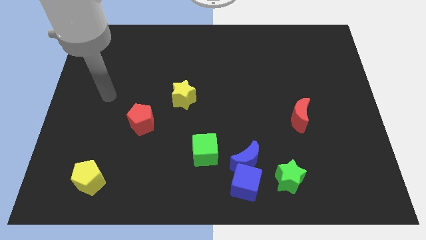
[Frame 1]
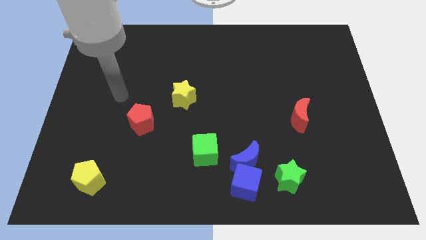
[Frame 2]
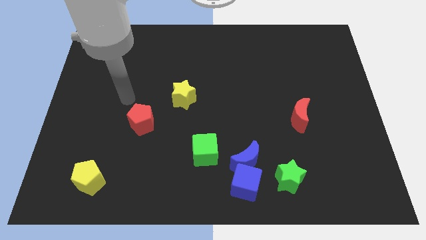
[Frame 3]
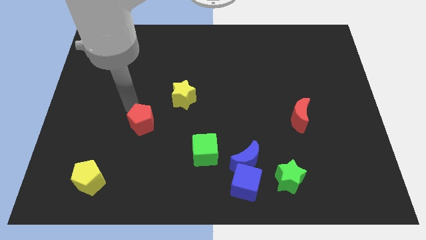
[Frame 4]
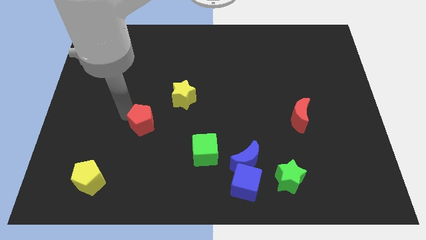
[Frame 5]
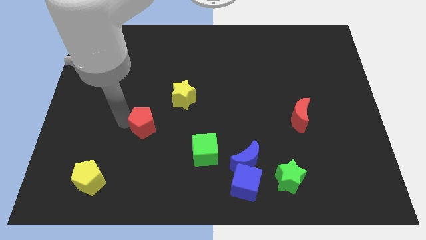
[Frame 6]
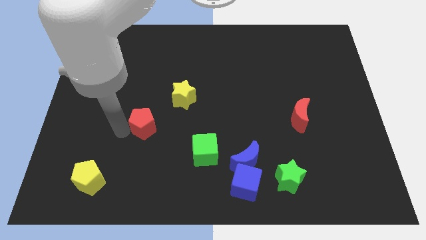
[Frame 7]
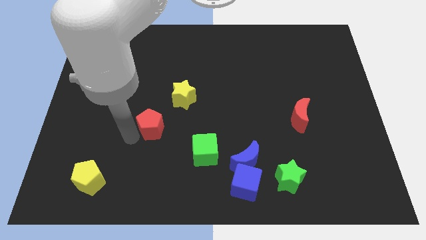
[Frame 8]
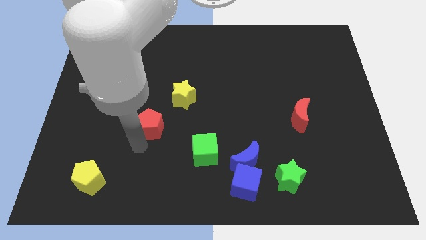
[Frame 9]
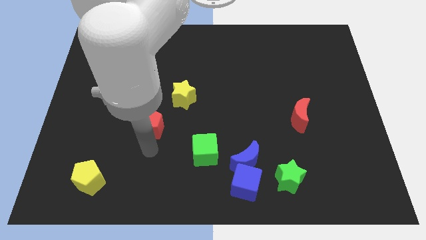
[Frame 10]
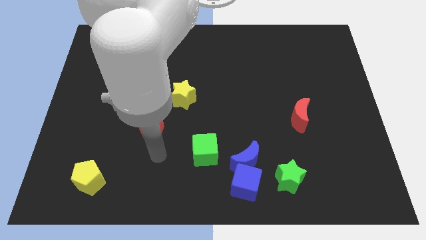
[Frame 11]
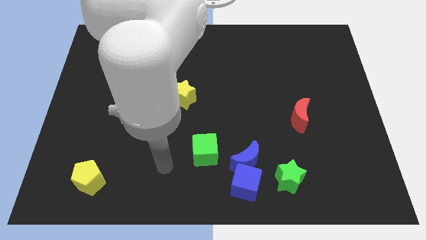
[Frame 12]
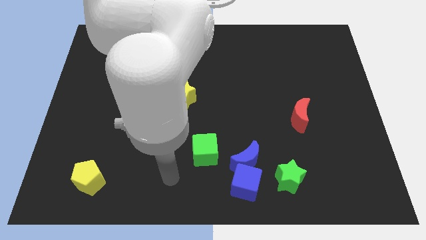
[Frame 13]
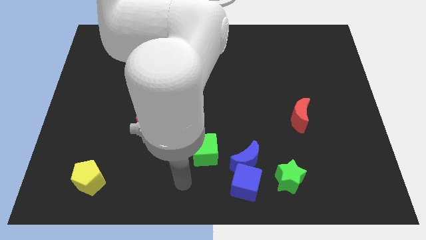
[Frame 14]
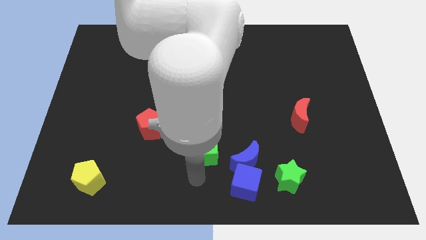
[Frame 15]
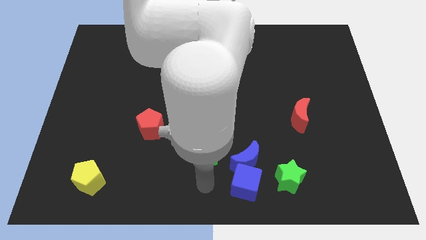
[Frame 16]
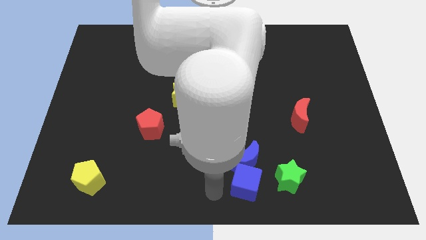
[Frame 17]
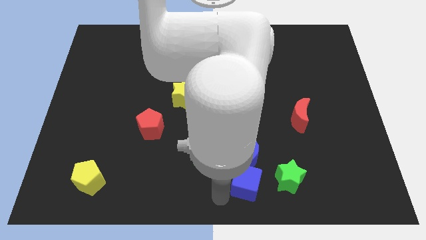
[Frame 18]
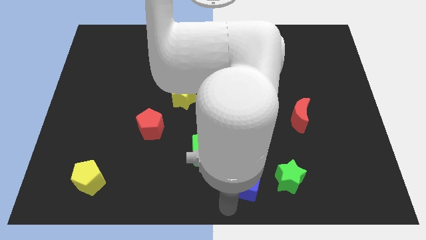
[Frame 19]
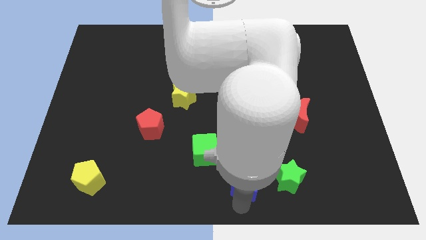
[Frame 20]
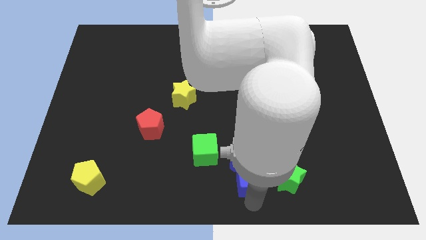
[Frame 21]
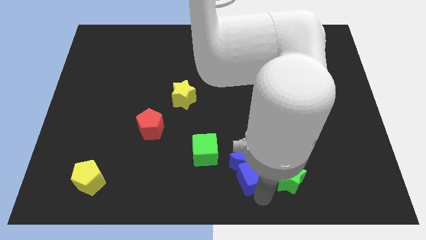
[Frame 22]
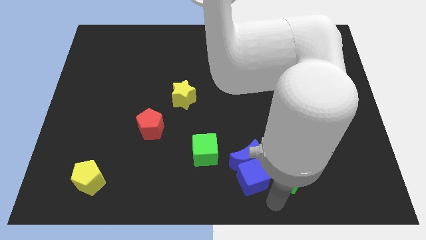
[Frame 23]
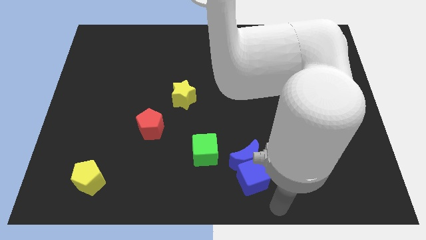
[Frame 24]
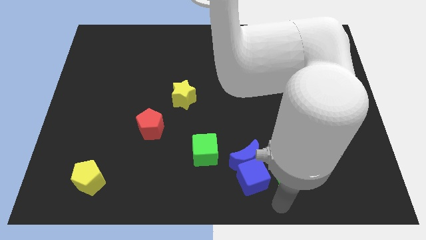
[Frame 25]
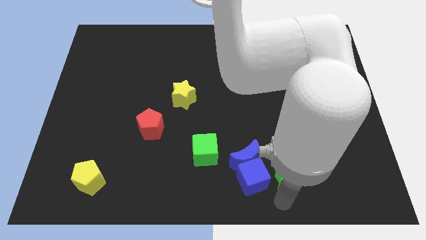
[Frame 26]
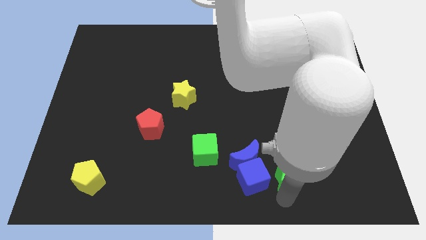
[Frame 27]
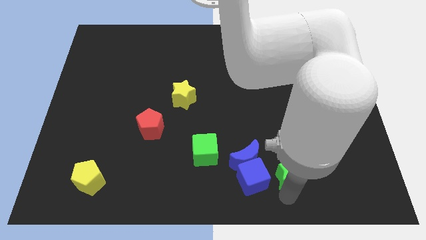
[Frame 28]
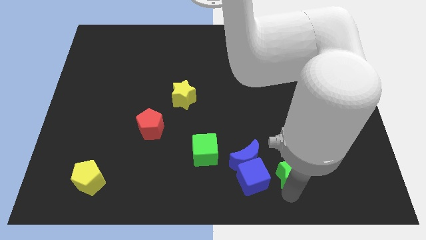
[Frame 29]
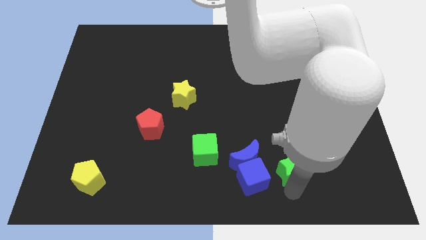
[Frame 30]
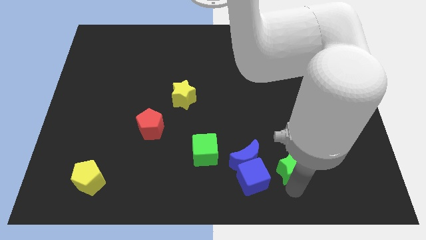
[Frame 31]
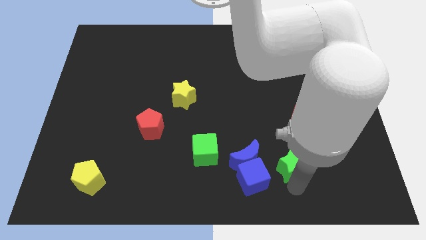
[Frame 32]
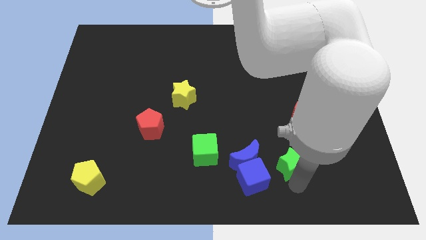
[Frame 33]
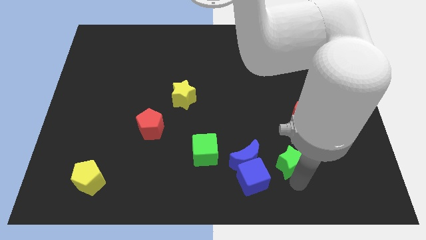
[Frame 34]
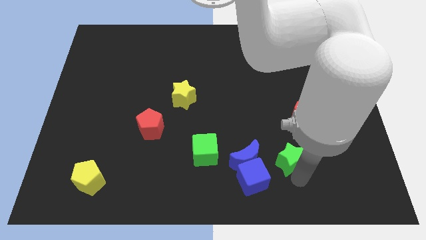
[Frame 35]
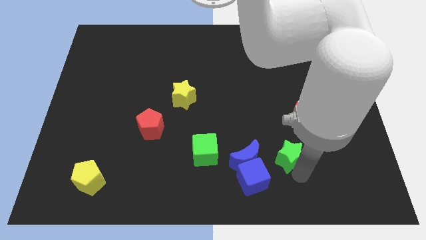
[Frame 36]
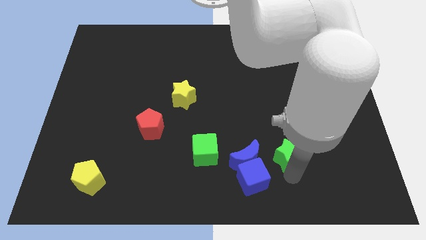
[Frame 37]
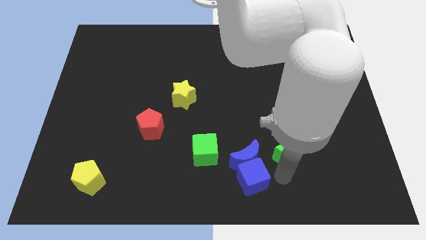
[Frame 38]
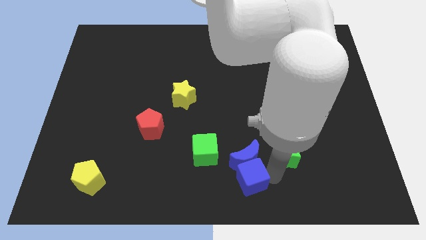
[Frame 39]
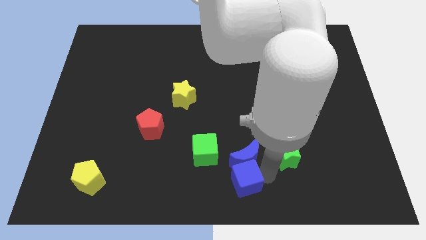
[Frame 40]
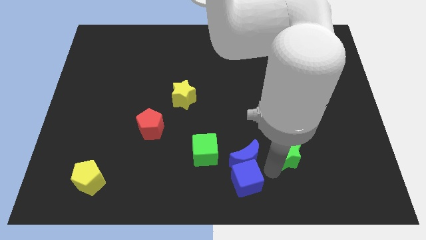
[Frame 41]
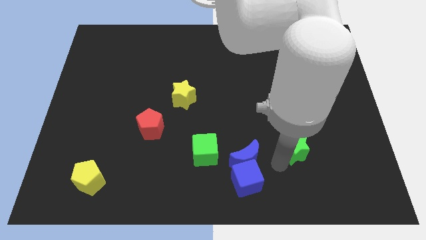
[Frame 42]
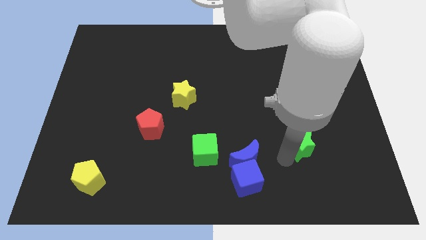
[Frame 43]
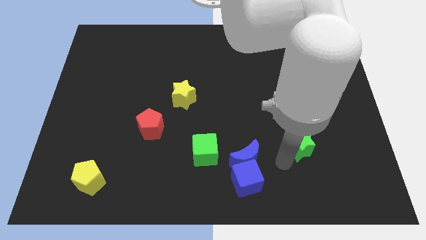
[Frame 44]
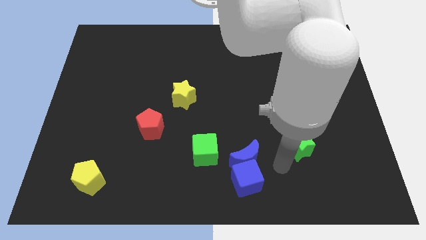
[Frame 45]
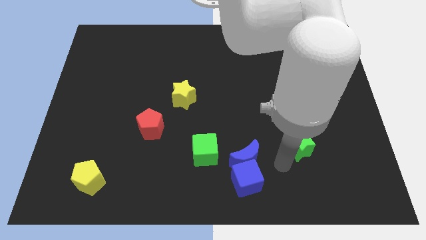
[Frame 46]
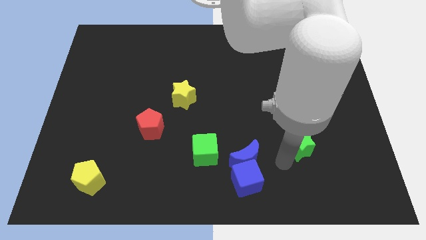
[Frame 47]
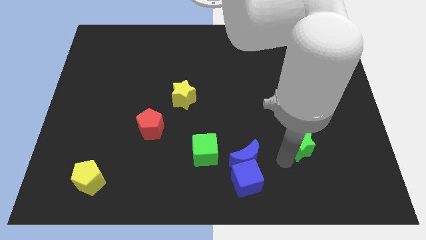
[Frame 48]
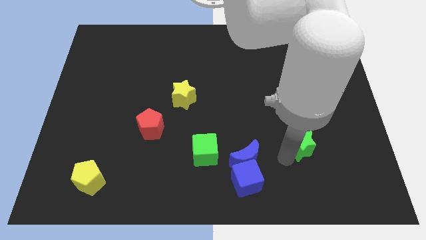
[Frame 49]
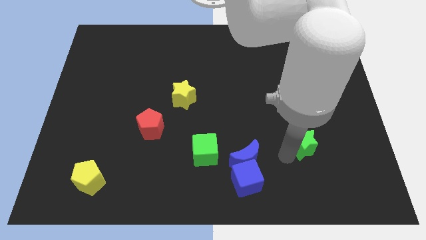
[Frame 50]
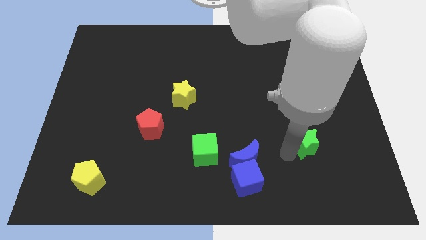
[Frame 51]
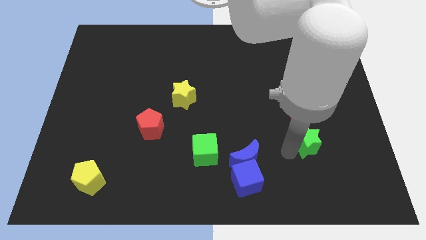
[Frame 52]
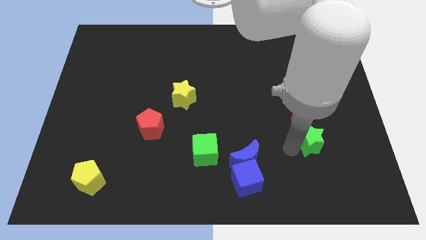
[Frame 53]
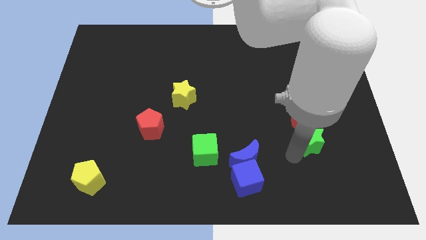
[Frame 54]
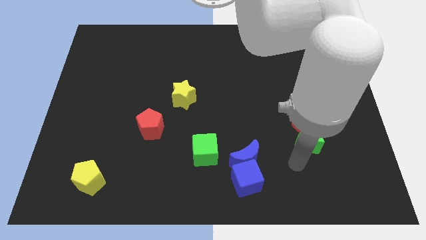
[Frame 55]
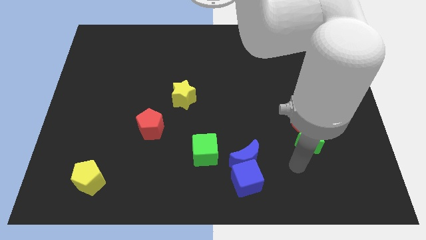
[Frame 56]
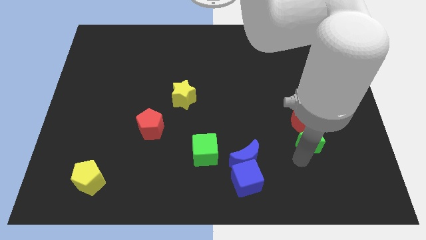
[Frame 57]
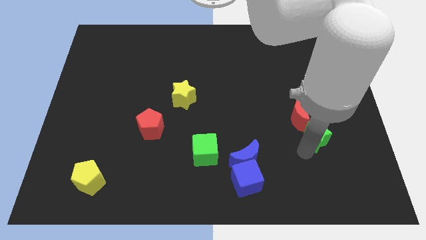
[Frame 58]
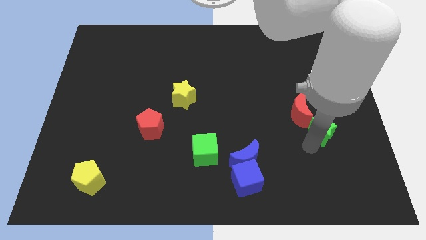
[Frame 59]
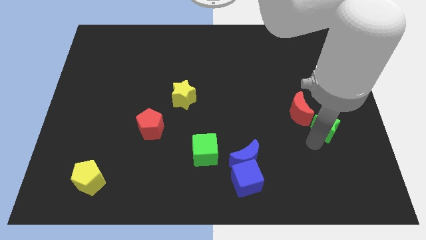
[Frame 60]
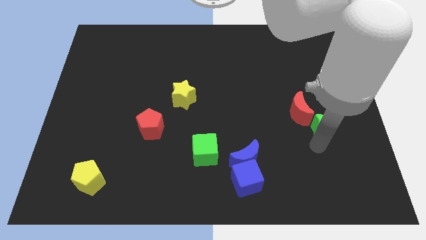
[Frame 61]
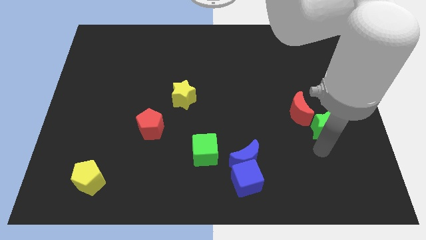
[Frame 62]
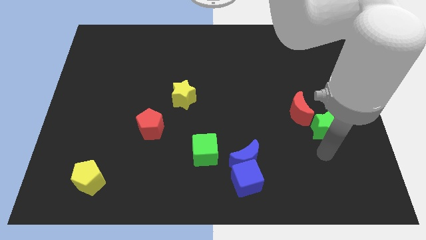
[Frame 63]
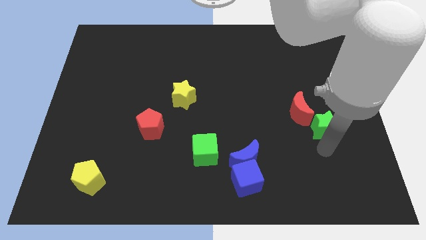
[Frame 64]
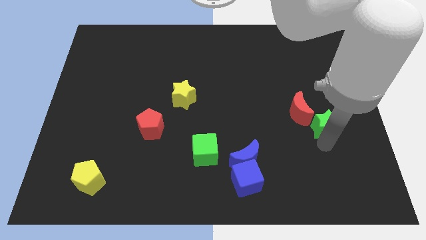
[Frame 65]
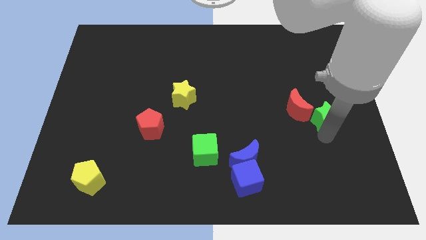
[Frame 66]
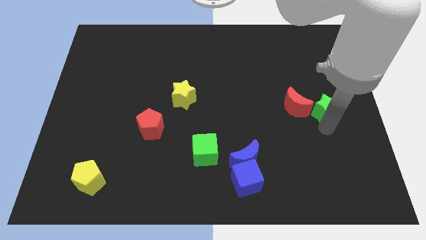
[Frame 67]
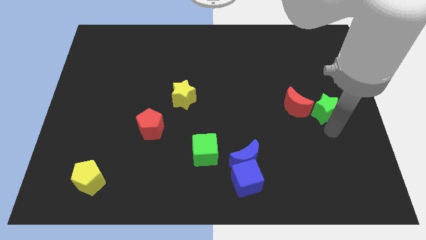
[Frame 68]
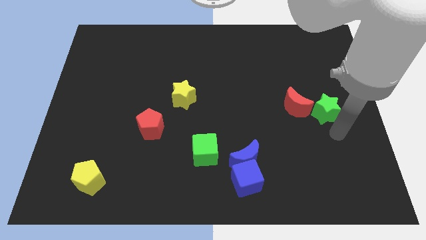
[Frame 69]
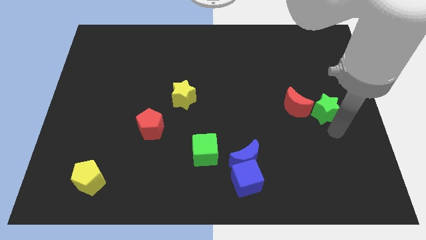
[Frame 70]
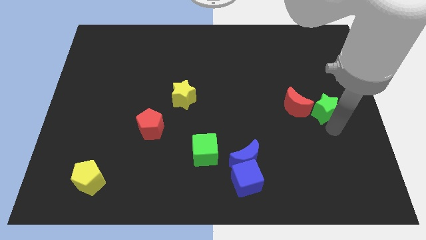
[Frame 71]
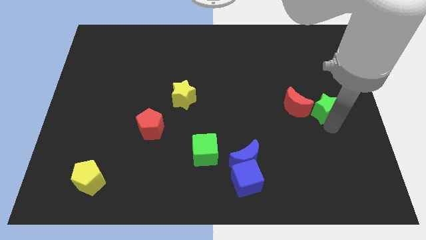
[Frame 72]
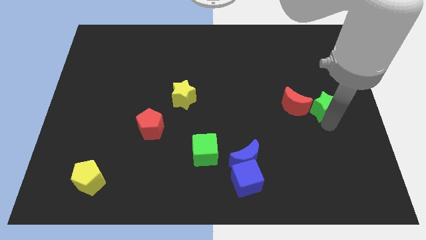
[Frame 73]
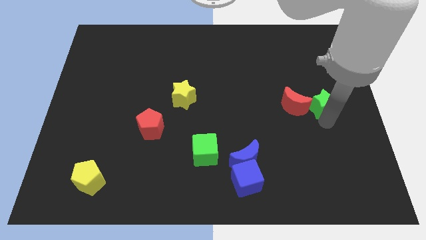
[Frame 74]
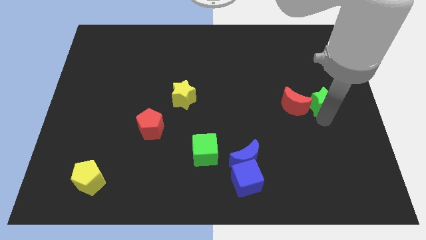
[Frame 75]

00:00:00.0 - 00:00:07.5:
slide the green star diagonally up and to the right of the red moon
